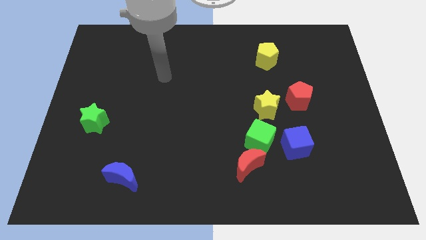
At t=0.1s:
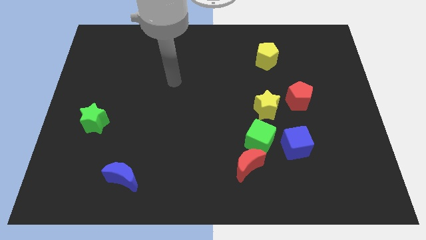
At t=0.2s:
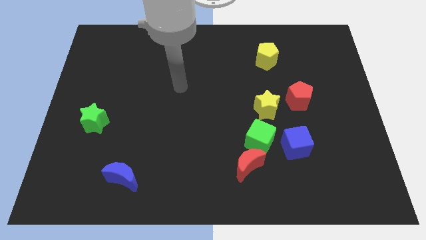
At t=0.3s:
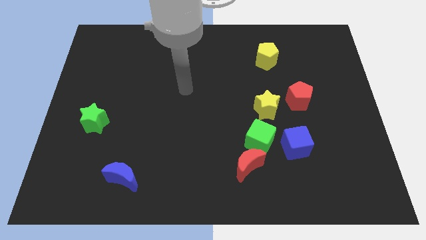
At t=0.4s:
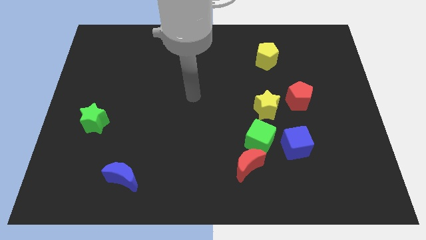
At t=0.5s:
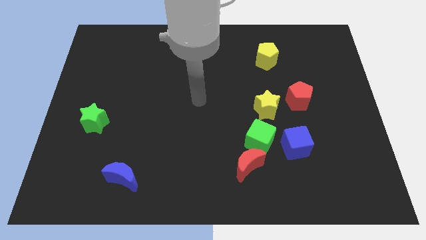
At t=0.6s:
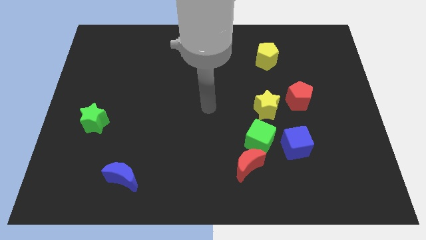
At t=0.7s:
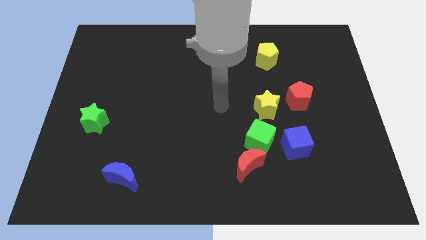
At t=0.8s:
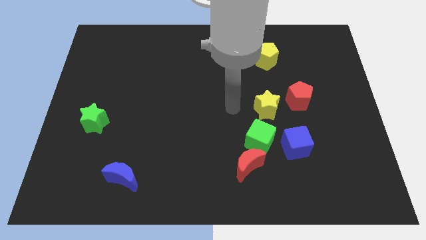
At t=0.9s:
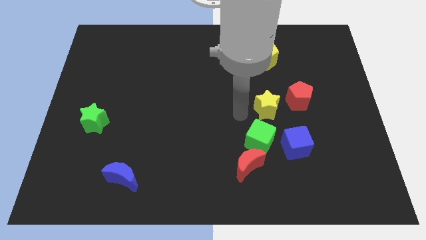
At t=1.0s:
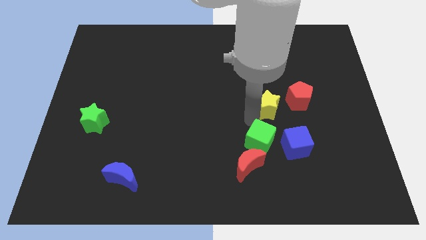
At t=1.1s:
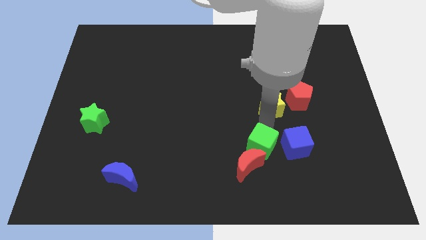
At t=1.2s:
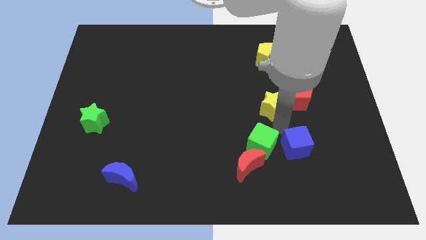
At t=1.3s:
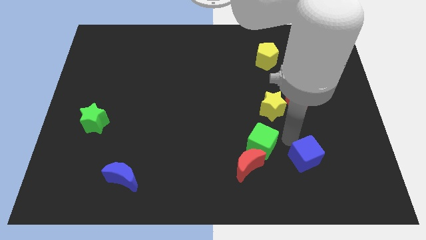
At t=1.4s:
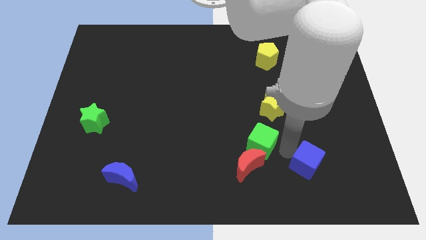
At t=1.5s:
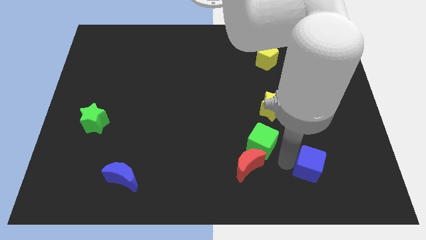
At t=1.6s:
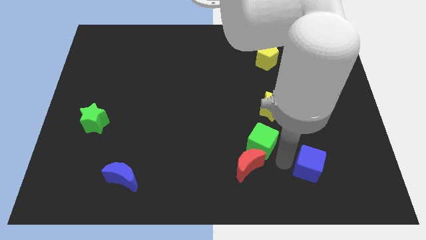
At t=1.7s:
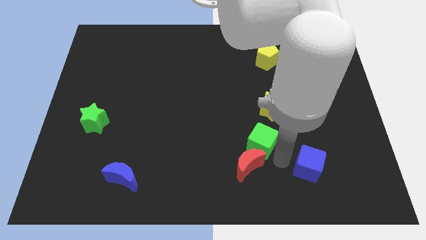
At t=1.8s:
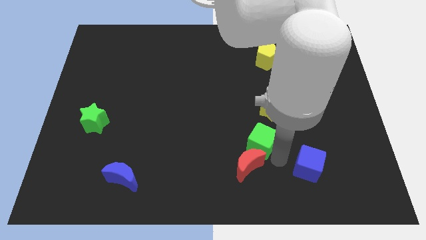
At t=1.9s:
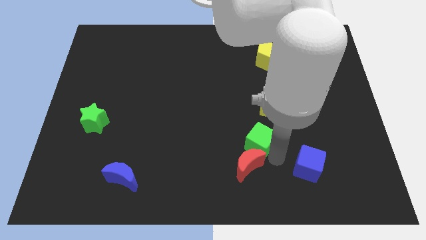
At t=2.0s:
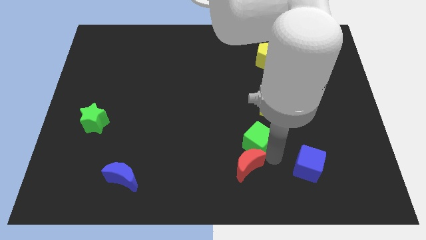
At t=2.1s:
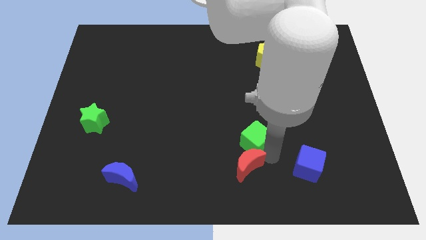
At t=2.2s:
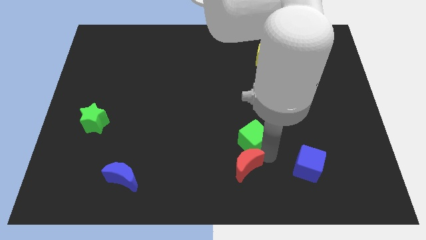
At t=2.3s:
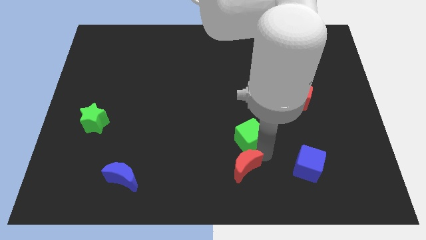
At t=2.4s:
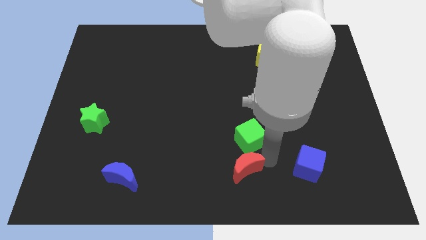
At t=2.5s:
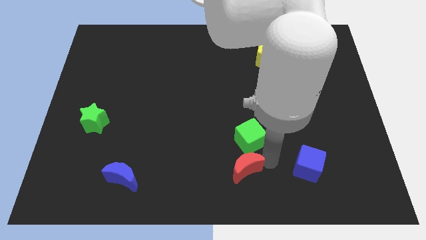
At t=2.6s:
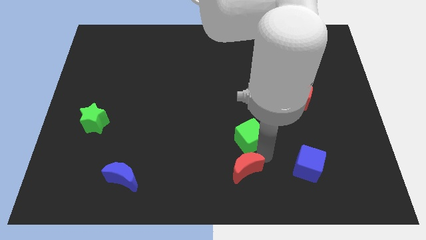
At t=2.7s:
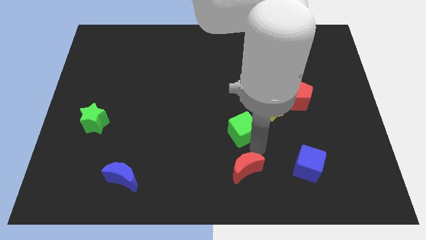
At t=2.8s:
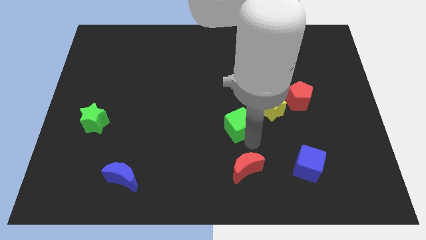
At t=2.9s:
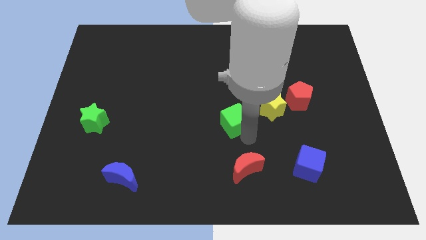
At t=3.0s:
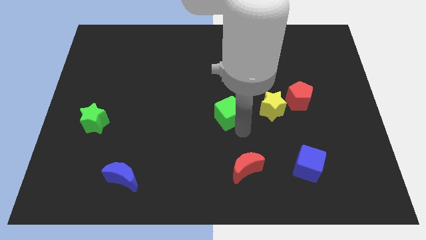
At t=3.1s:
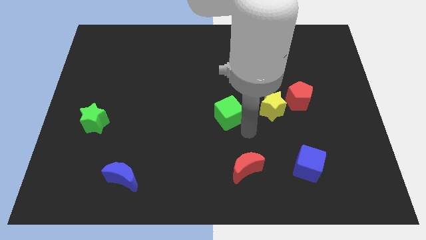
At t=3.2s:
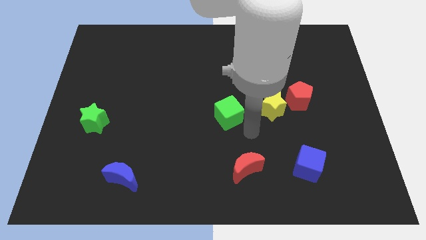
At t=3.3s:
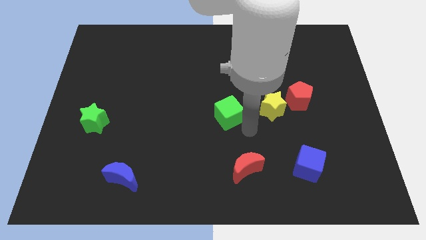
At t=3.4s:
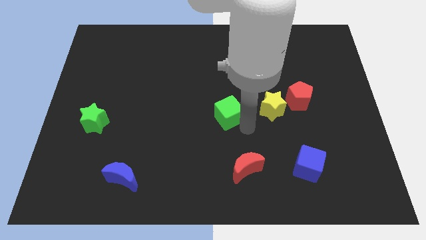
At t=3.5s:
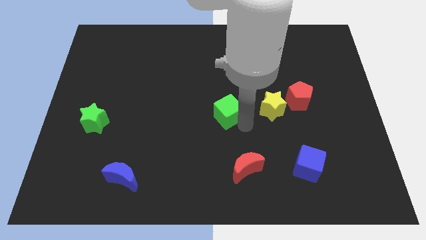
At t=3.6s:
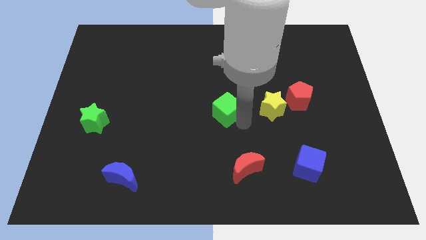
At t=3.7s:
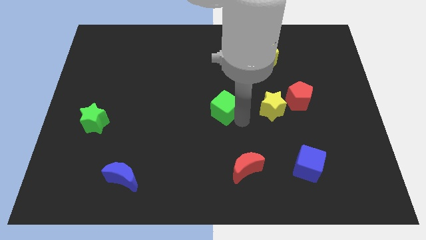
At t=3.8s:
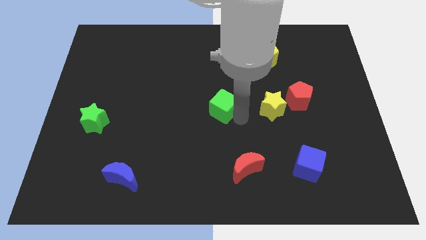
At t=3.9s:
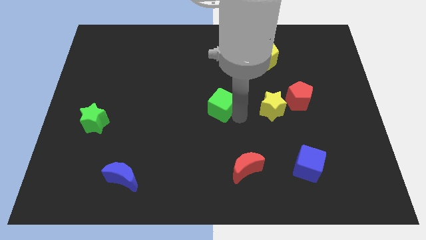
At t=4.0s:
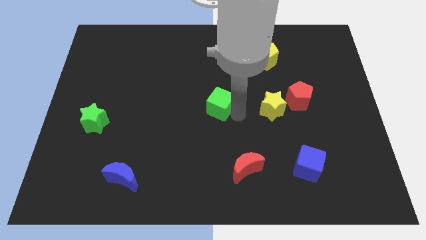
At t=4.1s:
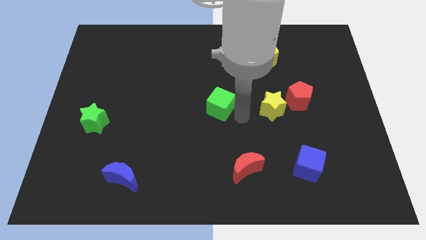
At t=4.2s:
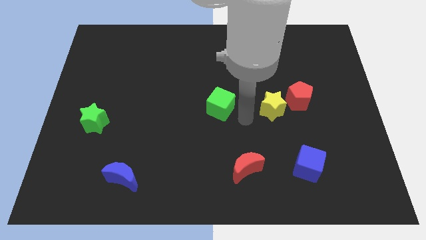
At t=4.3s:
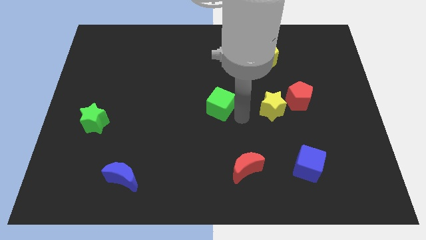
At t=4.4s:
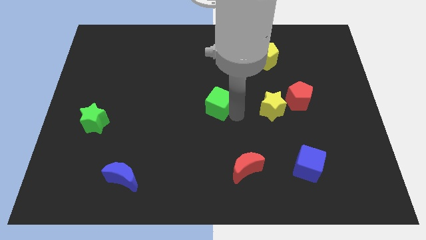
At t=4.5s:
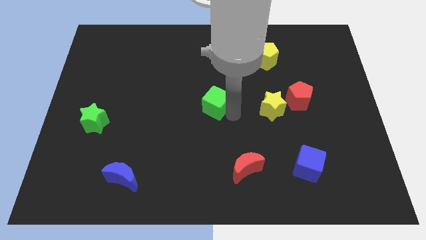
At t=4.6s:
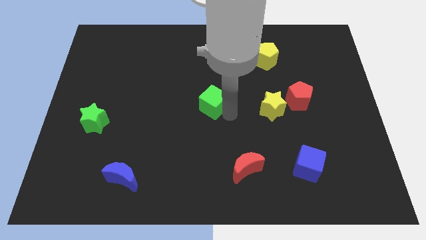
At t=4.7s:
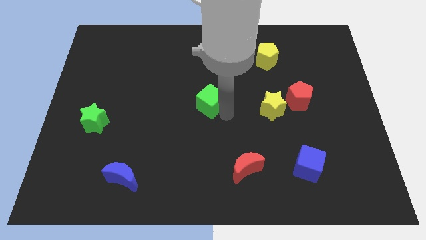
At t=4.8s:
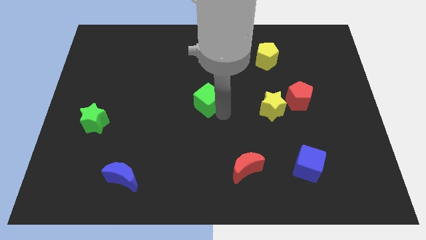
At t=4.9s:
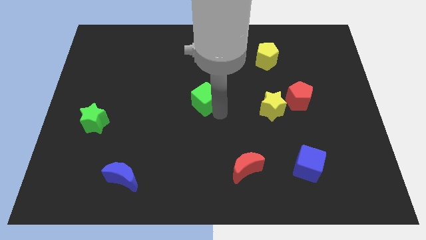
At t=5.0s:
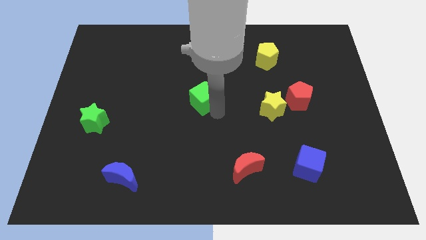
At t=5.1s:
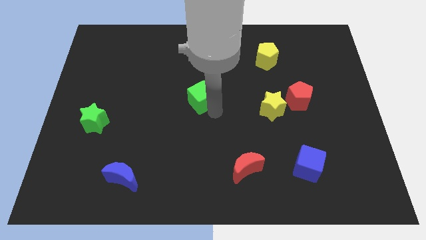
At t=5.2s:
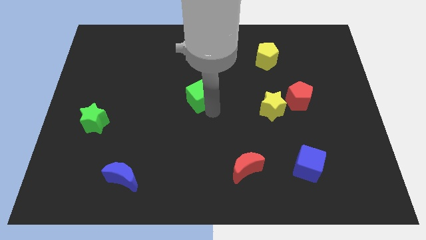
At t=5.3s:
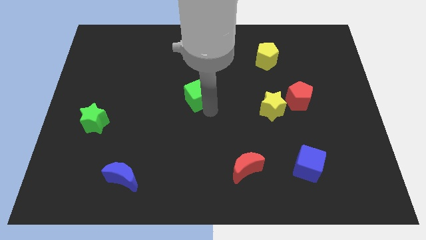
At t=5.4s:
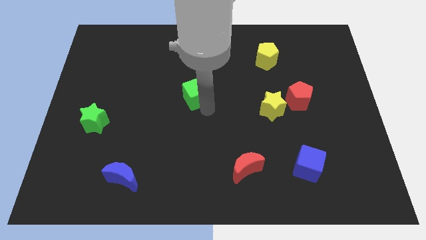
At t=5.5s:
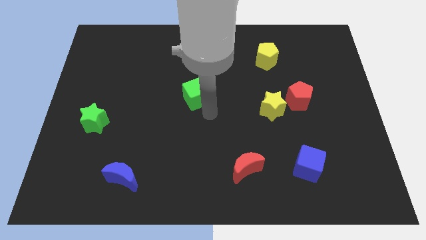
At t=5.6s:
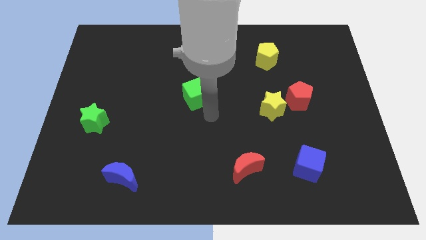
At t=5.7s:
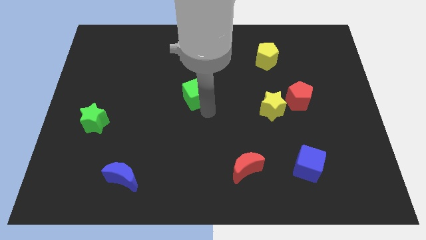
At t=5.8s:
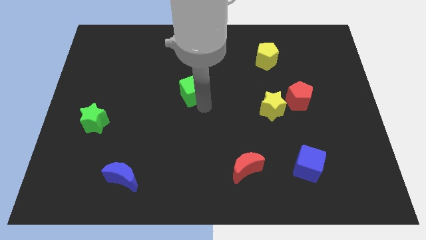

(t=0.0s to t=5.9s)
move the green cube upwards and to the left diagonally

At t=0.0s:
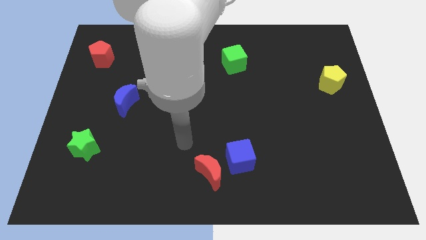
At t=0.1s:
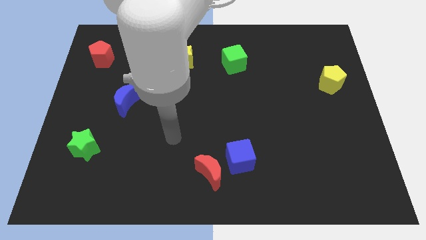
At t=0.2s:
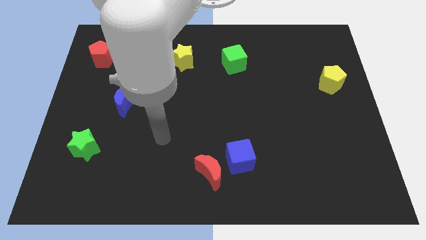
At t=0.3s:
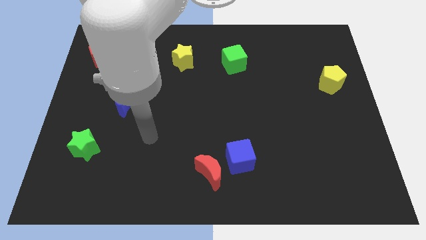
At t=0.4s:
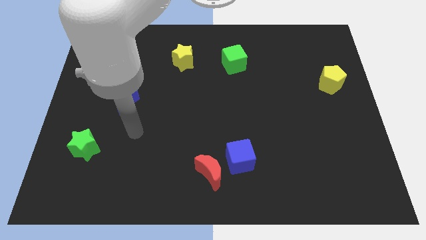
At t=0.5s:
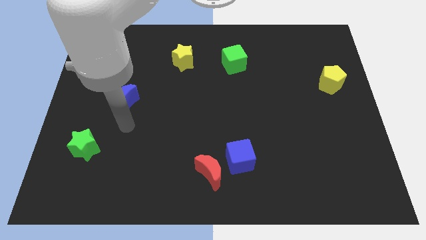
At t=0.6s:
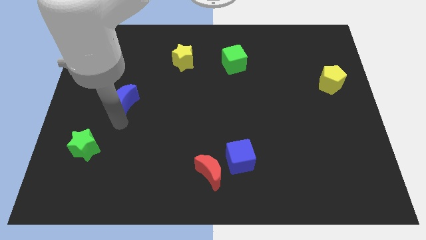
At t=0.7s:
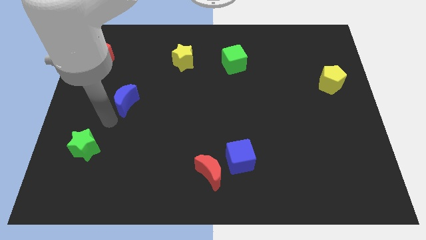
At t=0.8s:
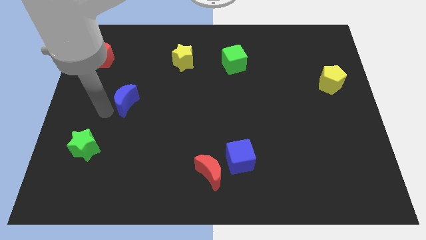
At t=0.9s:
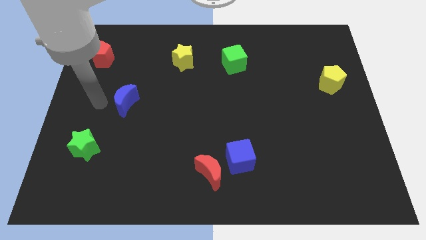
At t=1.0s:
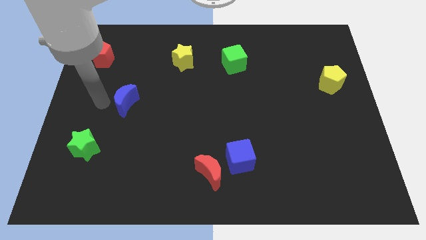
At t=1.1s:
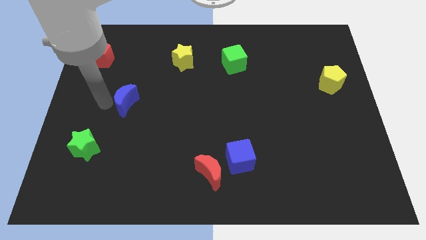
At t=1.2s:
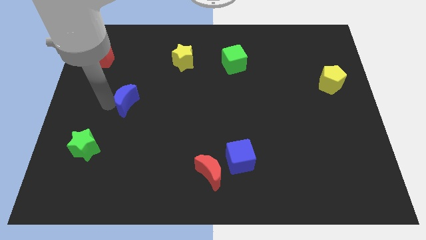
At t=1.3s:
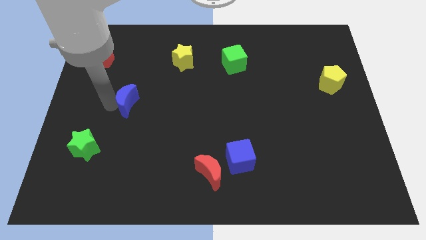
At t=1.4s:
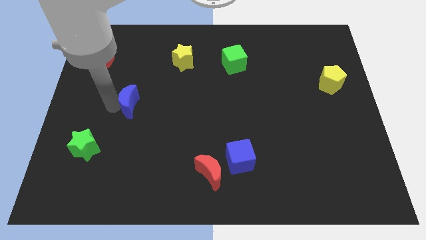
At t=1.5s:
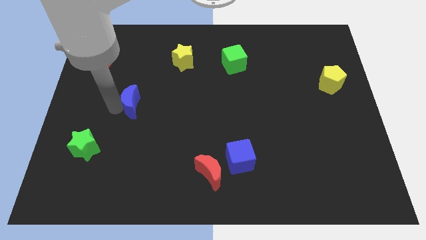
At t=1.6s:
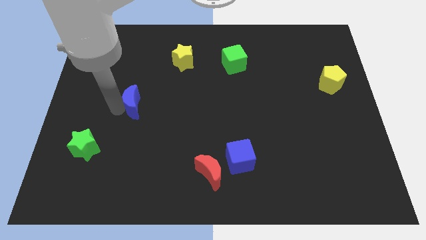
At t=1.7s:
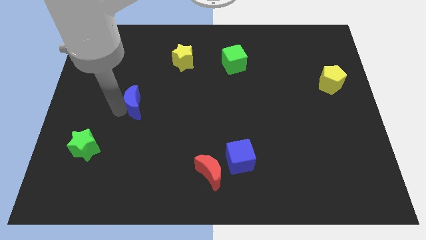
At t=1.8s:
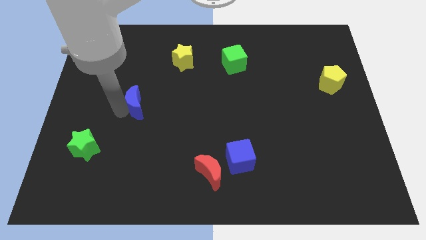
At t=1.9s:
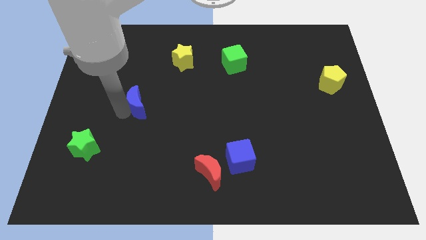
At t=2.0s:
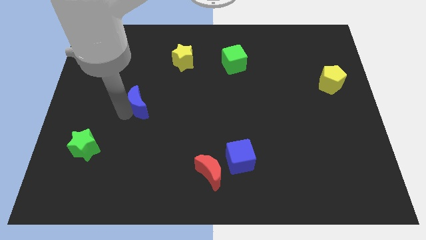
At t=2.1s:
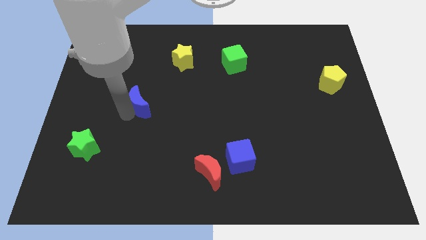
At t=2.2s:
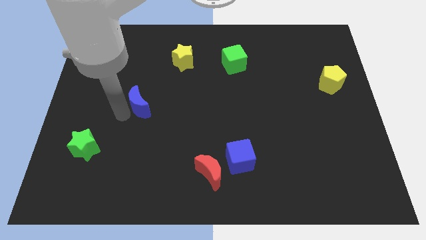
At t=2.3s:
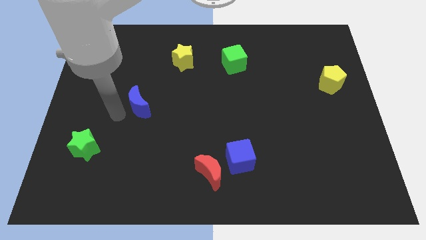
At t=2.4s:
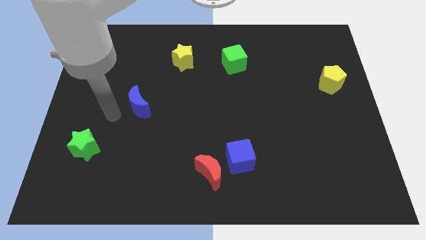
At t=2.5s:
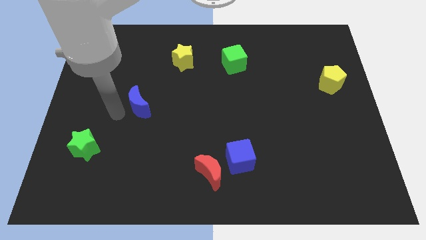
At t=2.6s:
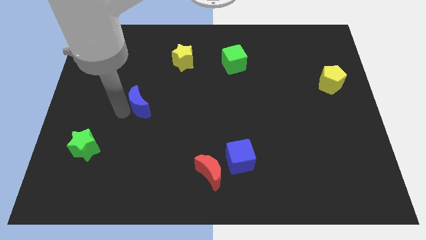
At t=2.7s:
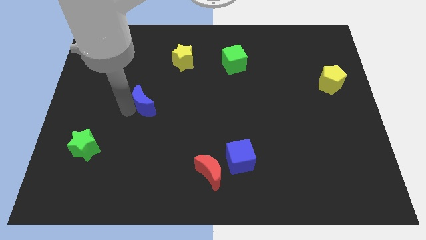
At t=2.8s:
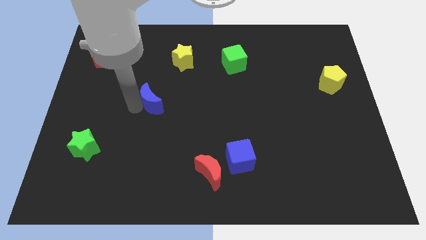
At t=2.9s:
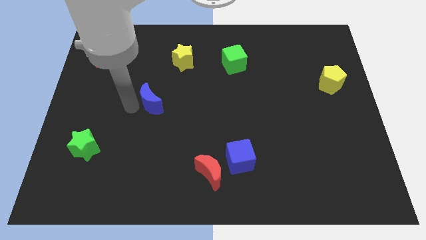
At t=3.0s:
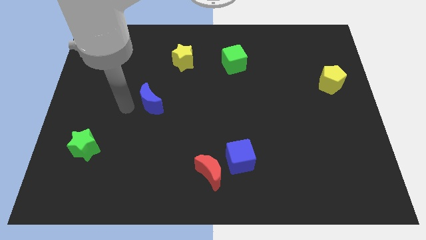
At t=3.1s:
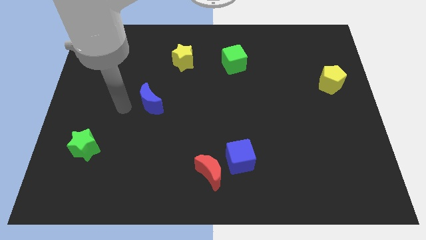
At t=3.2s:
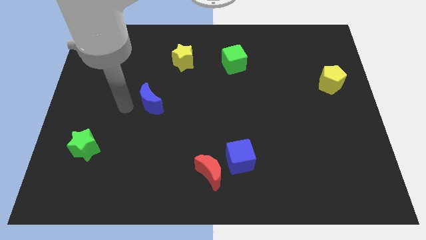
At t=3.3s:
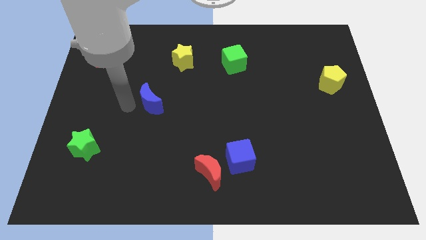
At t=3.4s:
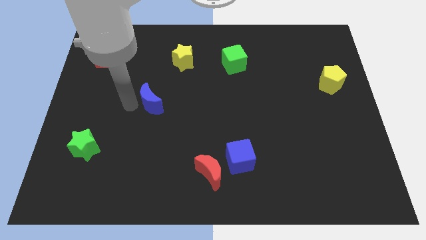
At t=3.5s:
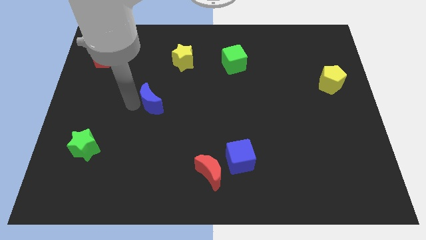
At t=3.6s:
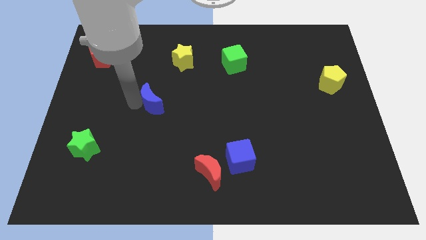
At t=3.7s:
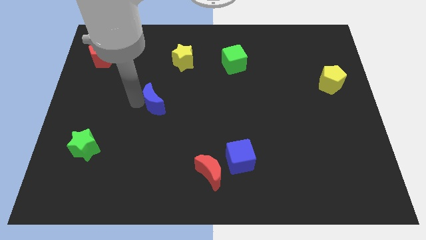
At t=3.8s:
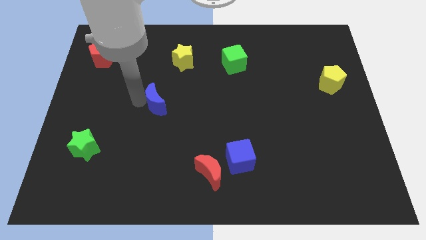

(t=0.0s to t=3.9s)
slightly slide the blue moon to the right
